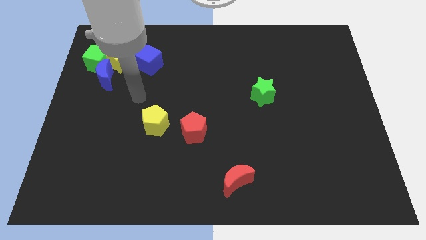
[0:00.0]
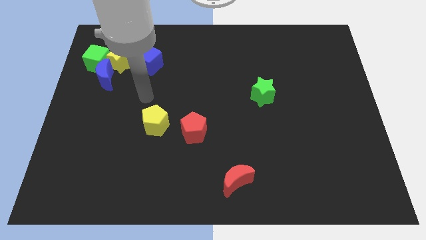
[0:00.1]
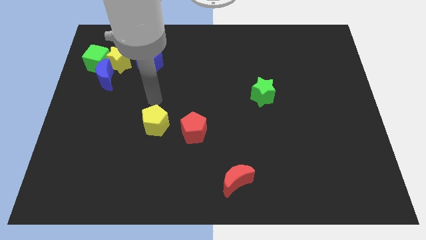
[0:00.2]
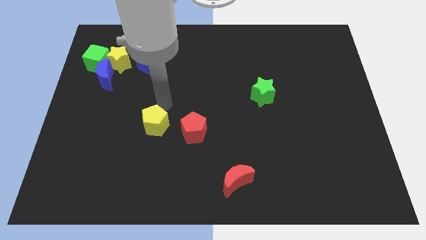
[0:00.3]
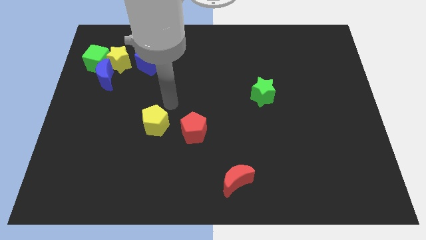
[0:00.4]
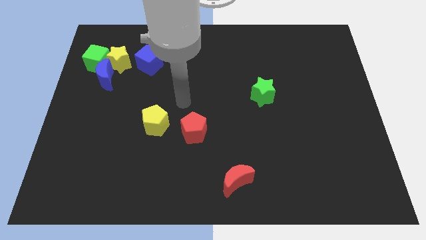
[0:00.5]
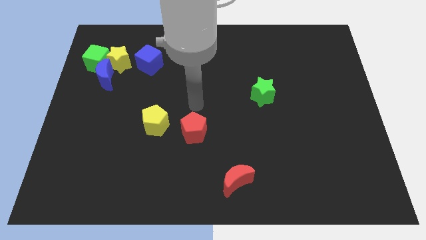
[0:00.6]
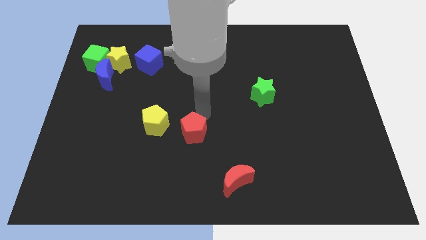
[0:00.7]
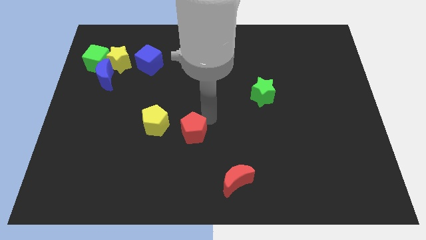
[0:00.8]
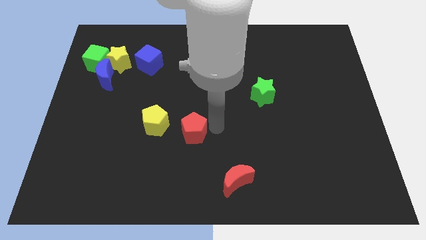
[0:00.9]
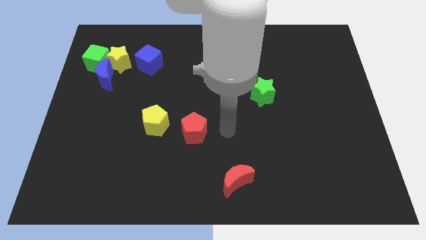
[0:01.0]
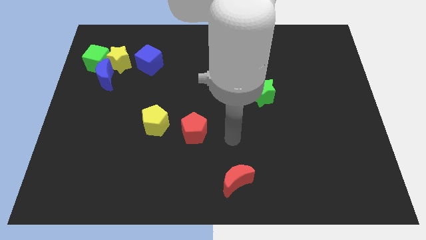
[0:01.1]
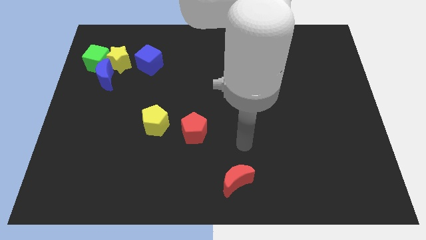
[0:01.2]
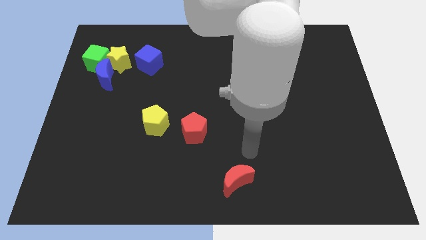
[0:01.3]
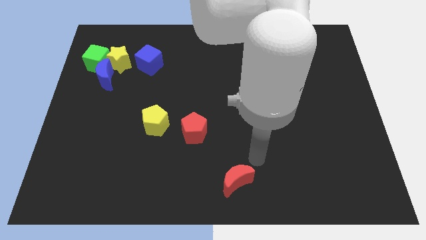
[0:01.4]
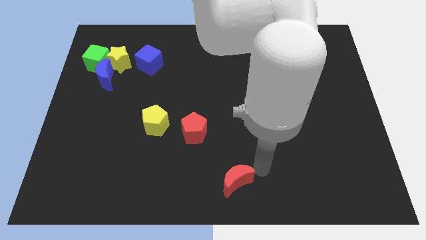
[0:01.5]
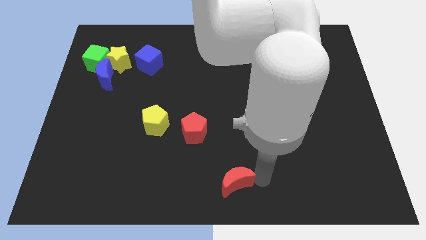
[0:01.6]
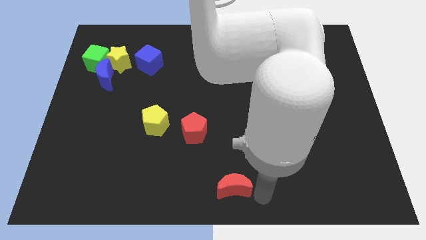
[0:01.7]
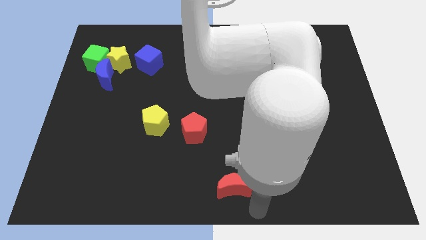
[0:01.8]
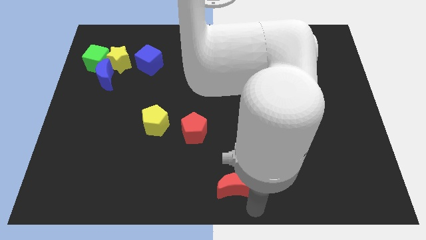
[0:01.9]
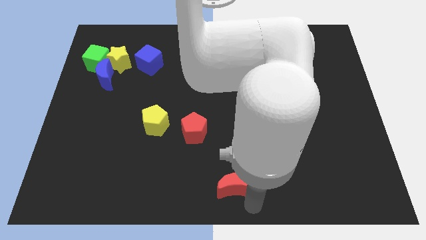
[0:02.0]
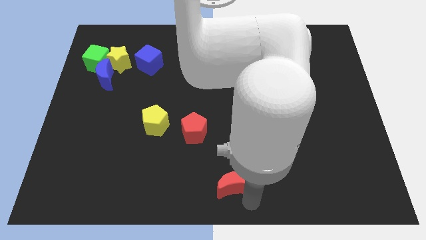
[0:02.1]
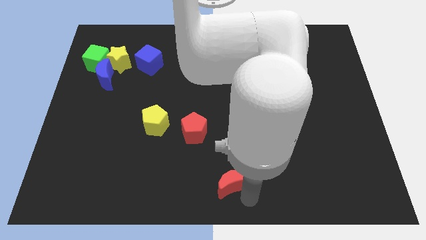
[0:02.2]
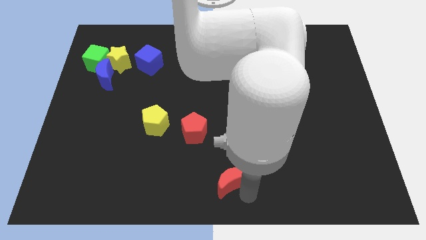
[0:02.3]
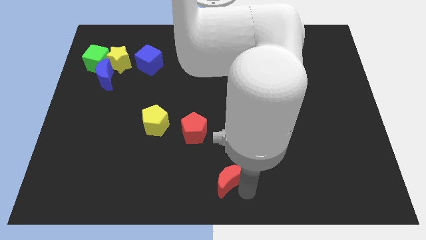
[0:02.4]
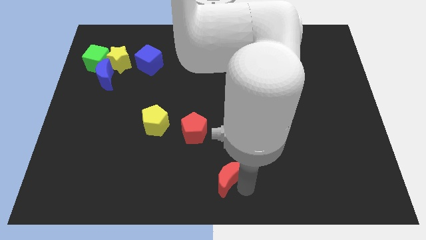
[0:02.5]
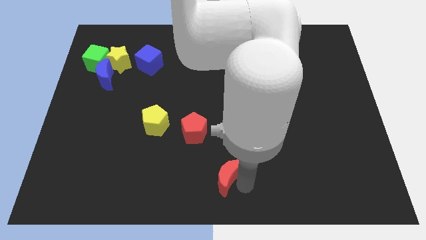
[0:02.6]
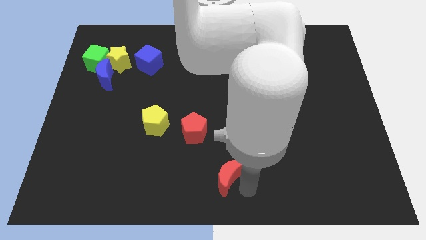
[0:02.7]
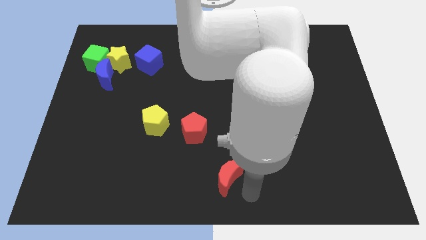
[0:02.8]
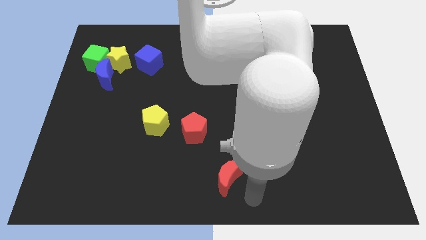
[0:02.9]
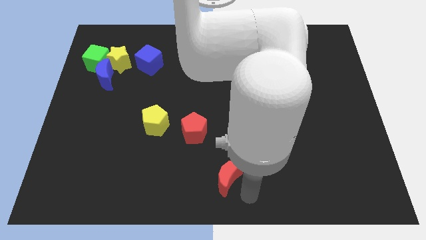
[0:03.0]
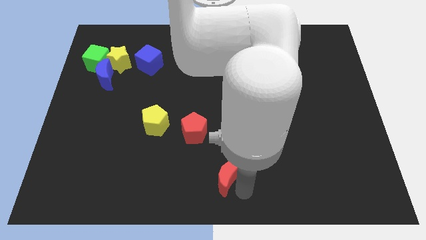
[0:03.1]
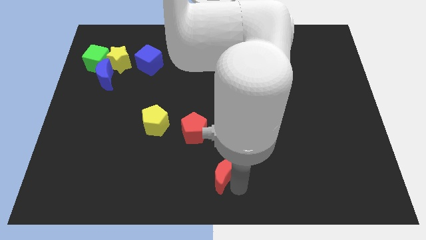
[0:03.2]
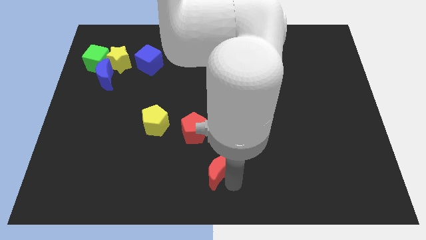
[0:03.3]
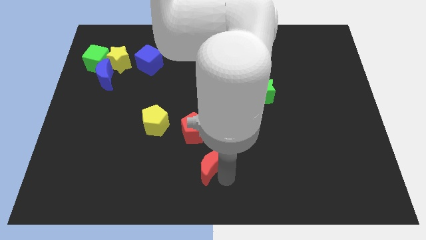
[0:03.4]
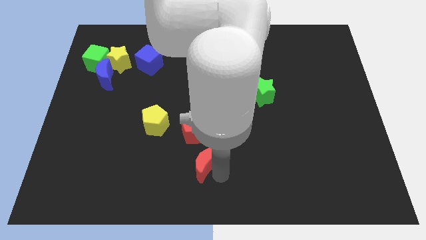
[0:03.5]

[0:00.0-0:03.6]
slightly move the red moon up and to the left

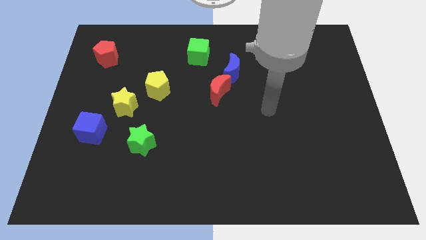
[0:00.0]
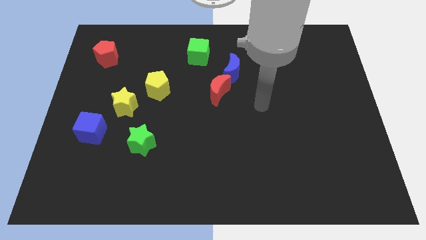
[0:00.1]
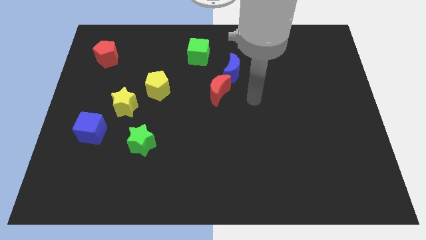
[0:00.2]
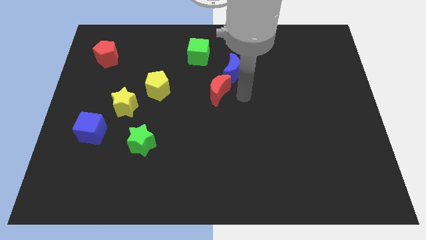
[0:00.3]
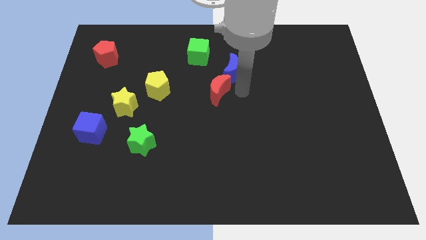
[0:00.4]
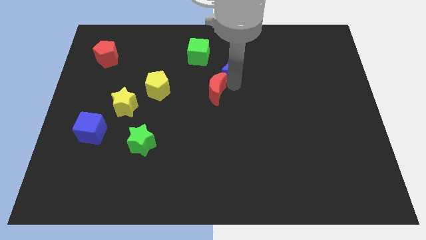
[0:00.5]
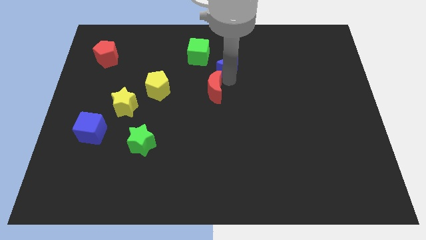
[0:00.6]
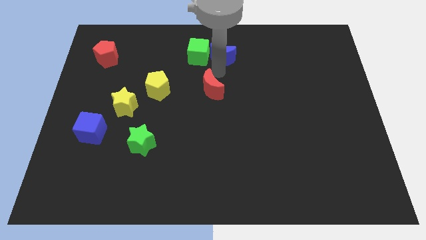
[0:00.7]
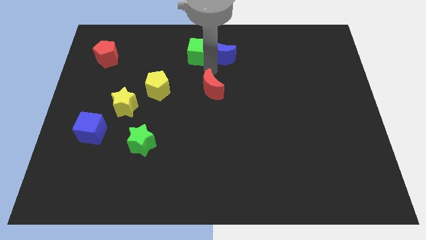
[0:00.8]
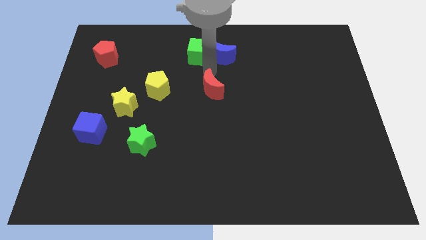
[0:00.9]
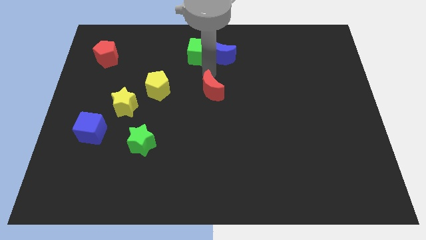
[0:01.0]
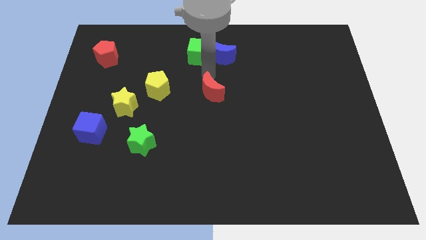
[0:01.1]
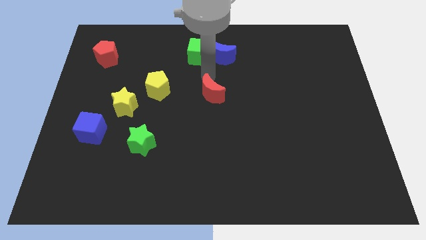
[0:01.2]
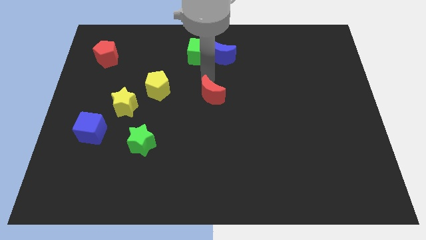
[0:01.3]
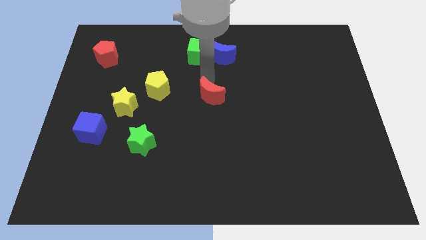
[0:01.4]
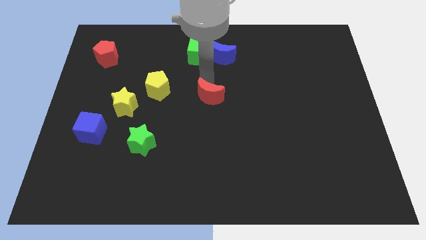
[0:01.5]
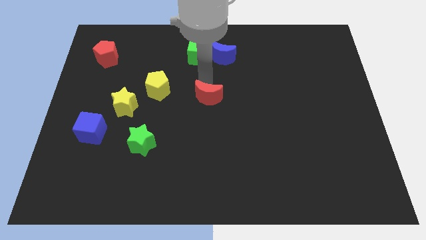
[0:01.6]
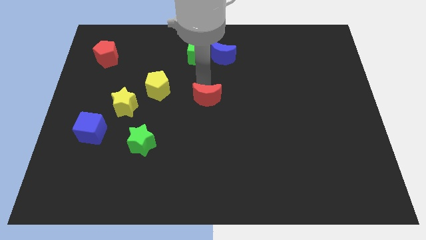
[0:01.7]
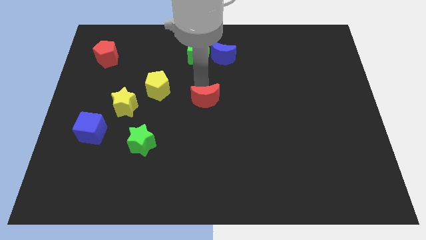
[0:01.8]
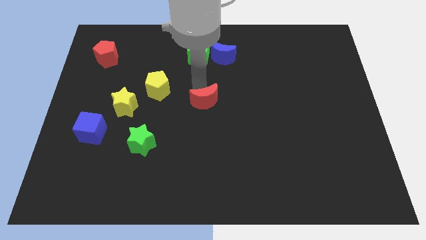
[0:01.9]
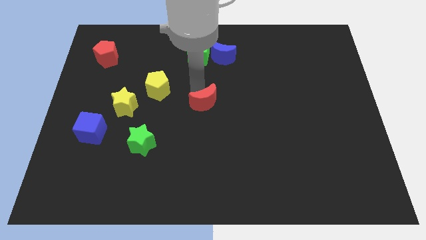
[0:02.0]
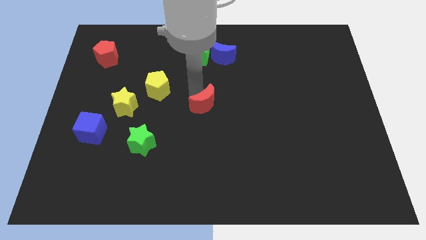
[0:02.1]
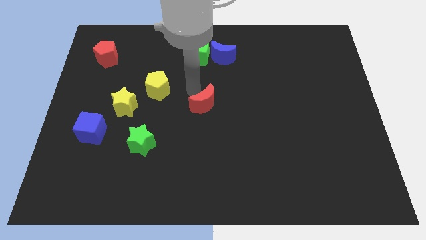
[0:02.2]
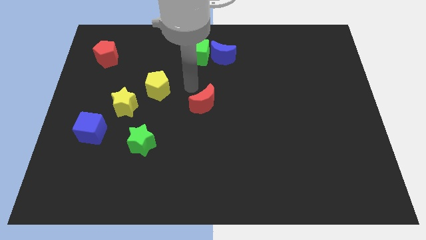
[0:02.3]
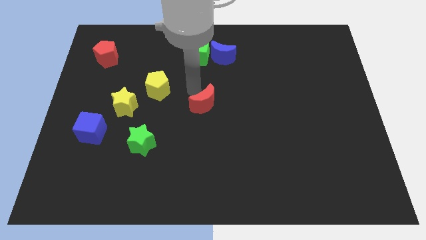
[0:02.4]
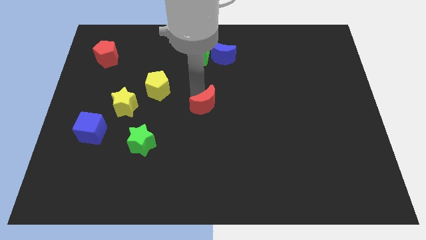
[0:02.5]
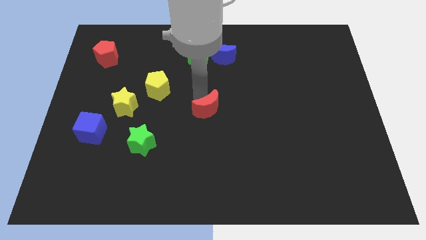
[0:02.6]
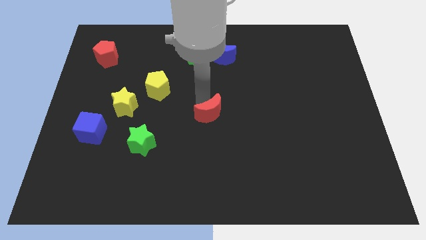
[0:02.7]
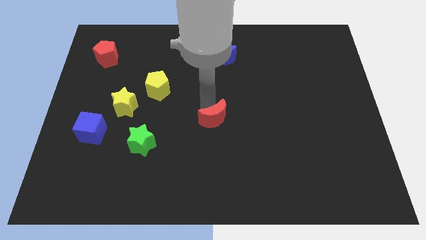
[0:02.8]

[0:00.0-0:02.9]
slide the red moon downwards a little

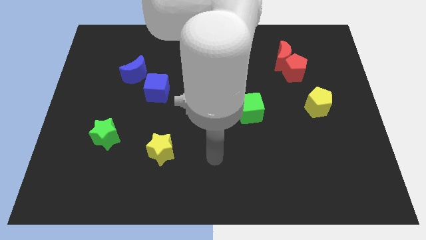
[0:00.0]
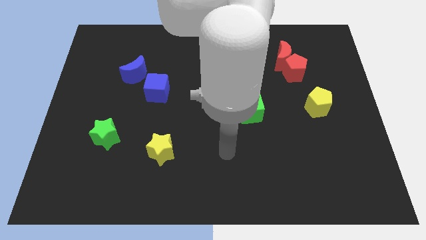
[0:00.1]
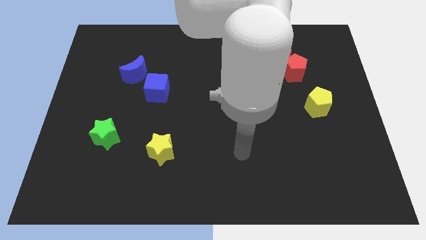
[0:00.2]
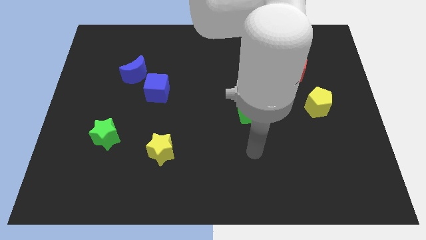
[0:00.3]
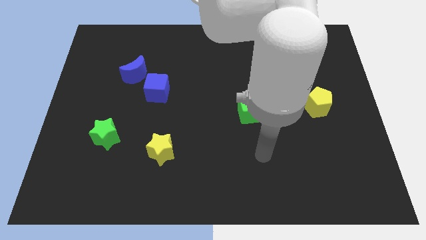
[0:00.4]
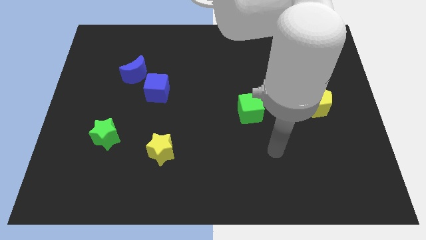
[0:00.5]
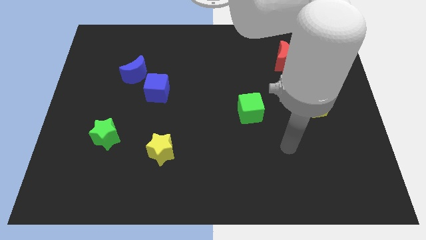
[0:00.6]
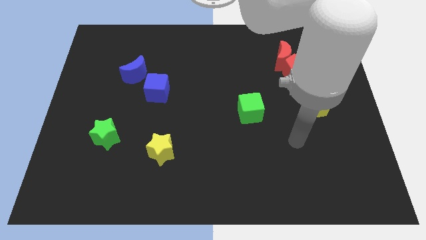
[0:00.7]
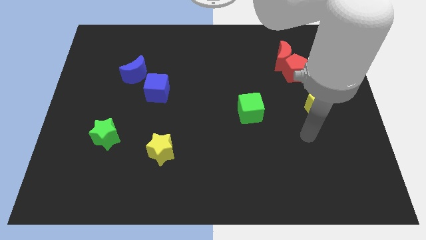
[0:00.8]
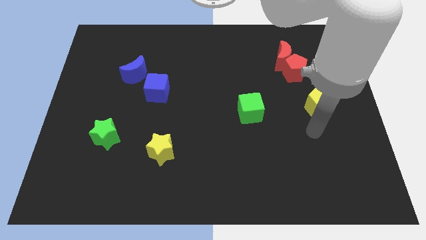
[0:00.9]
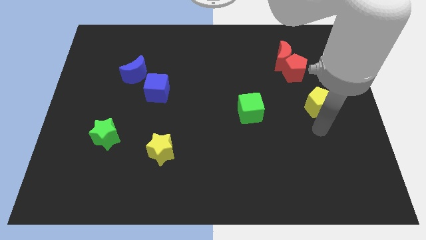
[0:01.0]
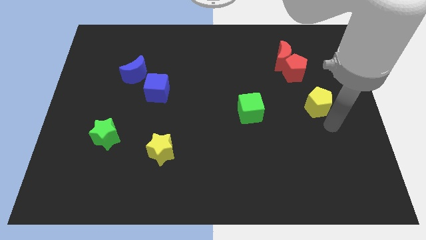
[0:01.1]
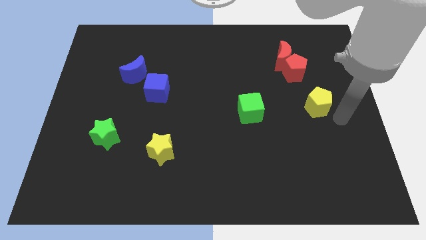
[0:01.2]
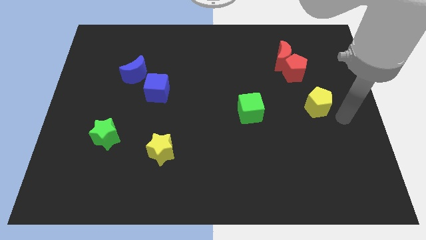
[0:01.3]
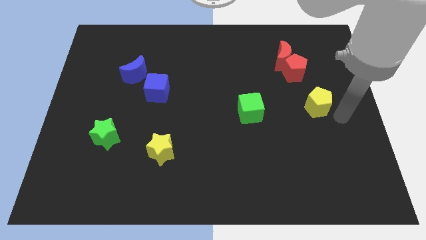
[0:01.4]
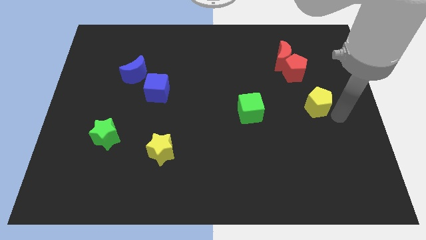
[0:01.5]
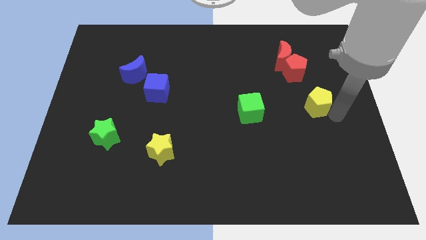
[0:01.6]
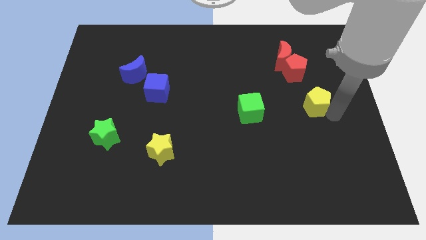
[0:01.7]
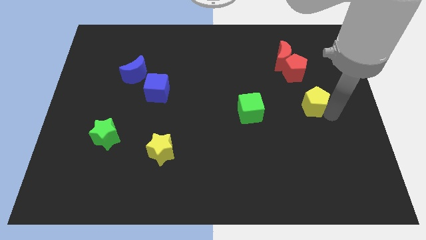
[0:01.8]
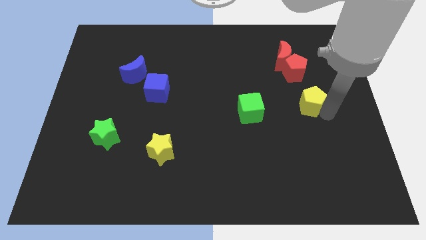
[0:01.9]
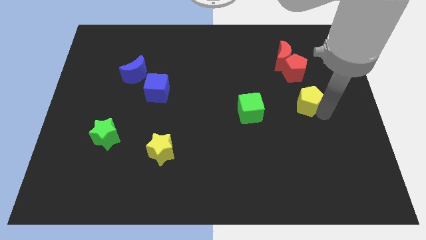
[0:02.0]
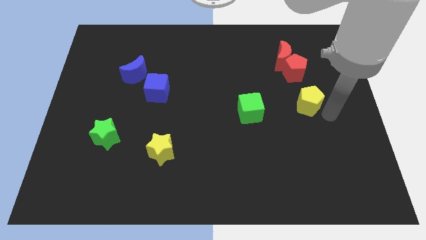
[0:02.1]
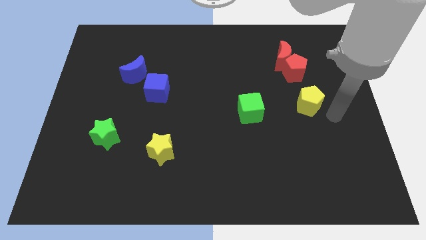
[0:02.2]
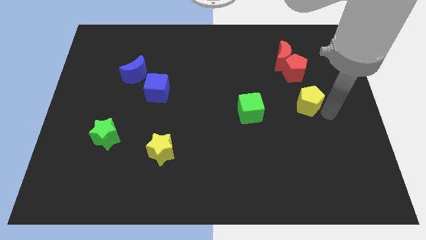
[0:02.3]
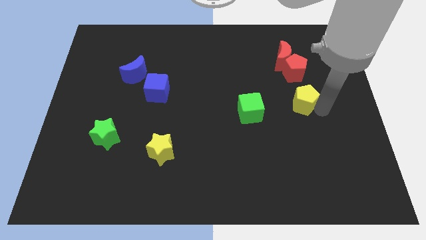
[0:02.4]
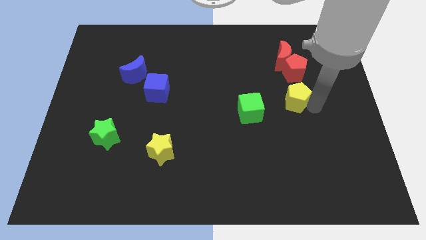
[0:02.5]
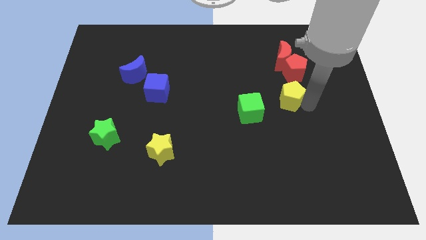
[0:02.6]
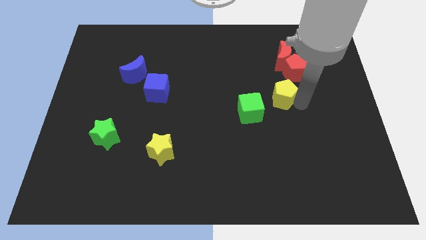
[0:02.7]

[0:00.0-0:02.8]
slide the yellow pentagon a bit upwards and to the left
